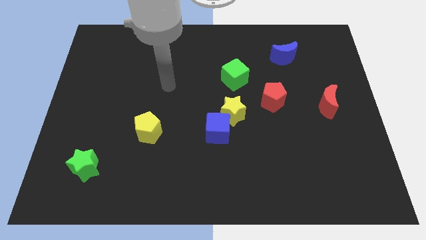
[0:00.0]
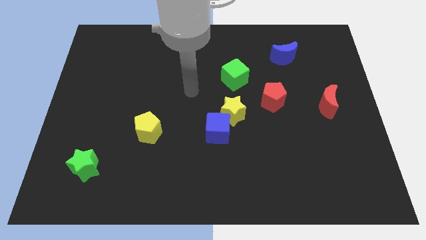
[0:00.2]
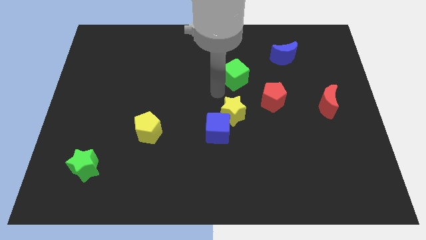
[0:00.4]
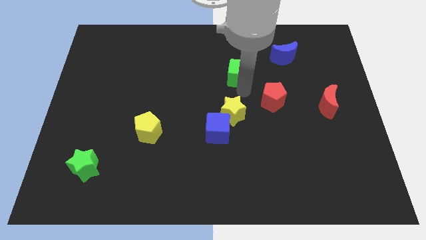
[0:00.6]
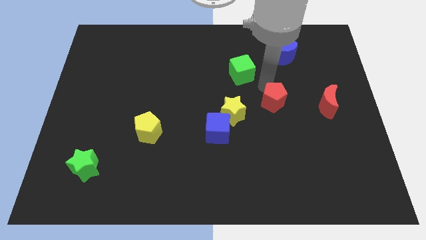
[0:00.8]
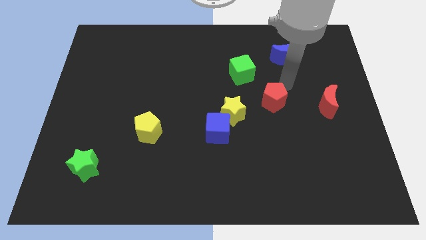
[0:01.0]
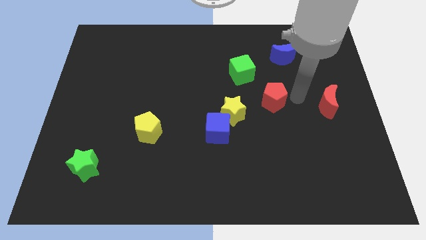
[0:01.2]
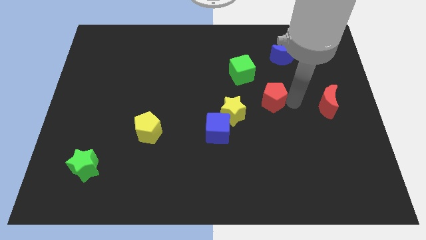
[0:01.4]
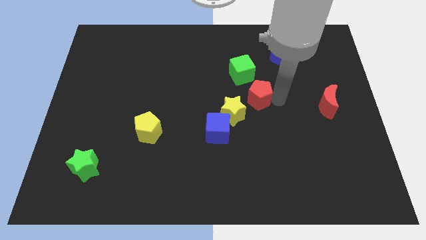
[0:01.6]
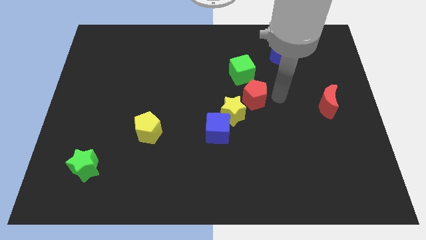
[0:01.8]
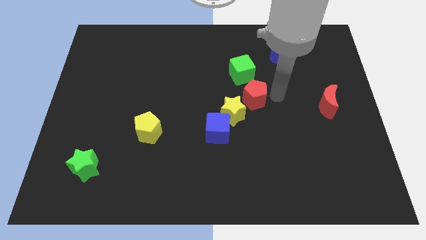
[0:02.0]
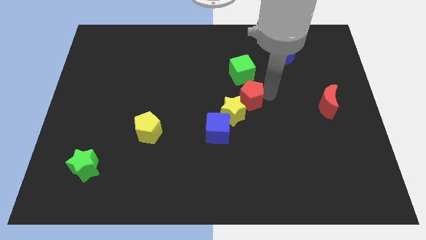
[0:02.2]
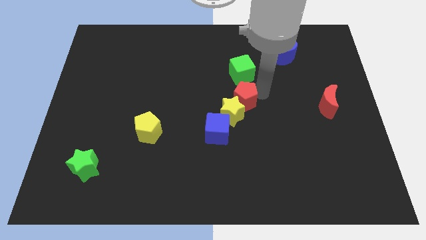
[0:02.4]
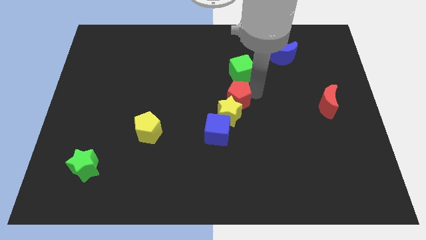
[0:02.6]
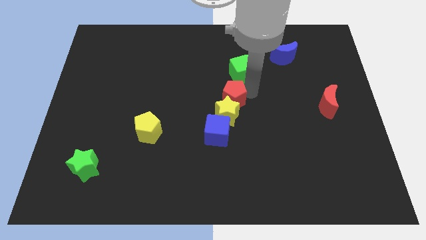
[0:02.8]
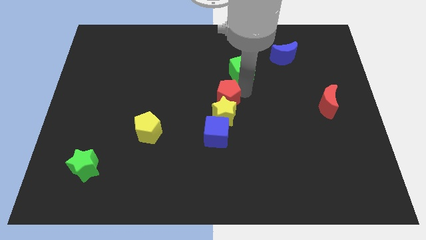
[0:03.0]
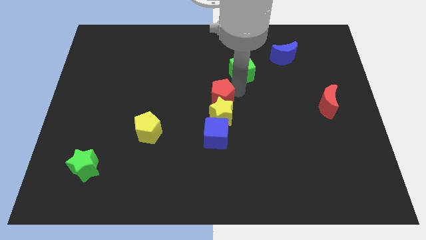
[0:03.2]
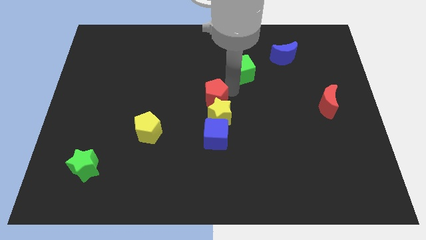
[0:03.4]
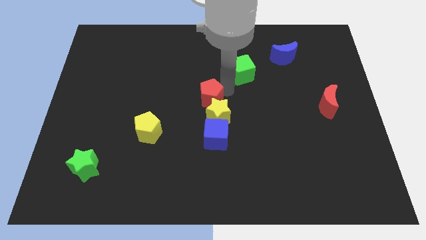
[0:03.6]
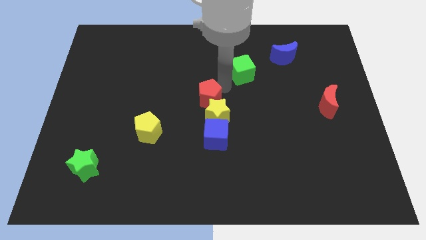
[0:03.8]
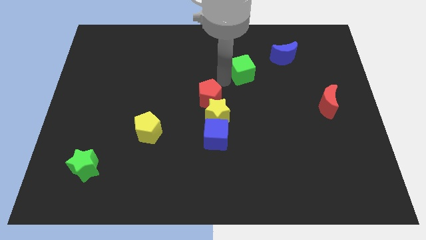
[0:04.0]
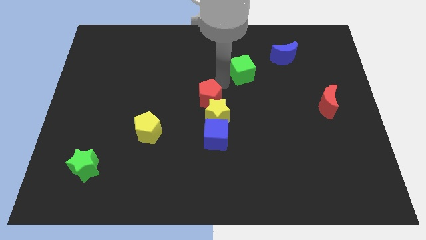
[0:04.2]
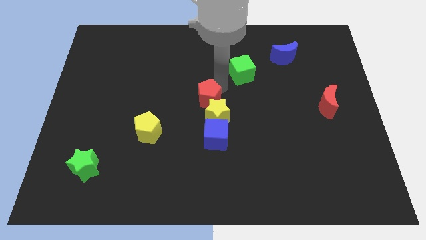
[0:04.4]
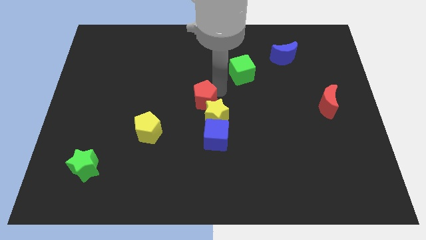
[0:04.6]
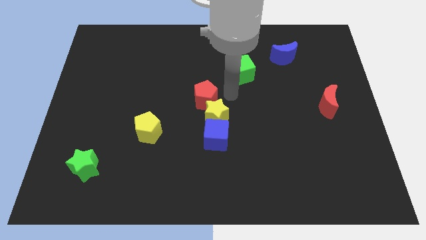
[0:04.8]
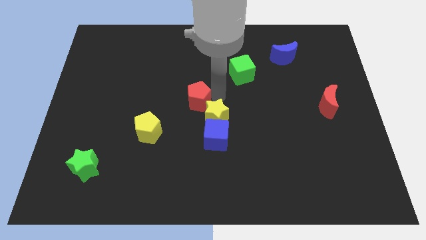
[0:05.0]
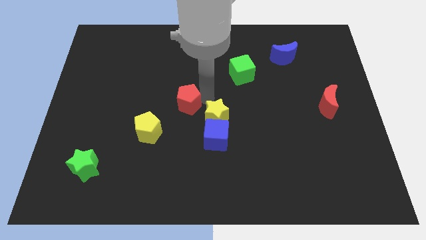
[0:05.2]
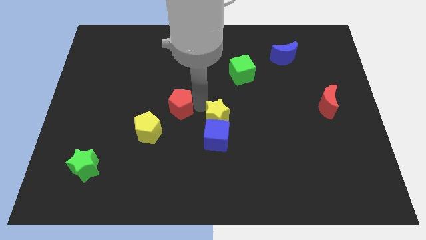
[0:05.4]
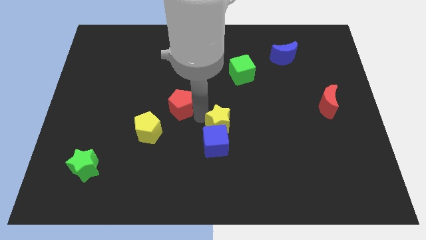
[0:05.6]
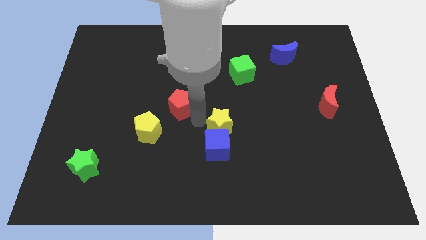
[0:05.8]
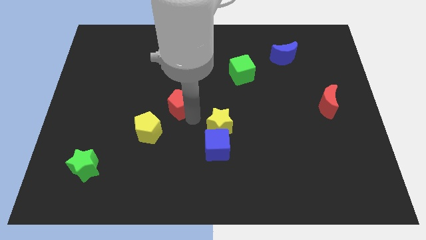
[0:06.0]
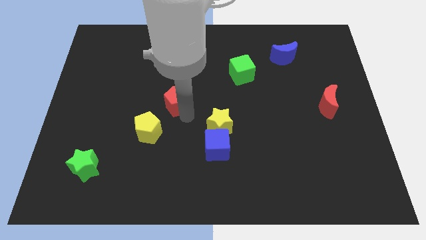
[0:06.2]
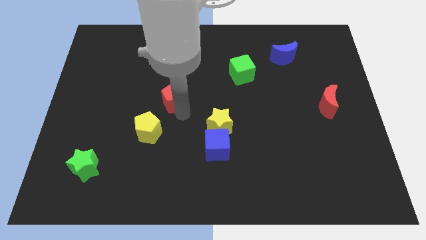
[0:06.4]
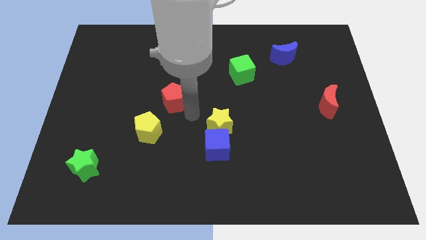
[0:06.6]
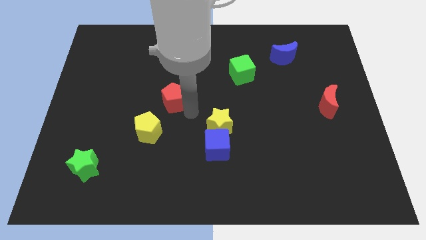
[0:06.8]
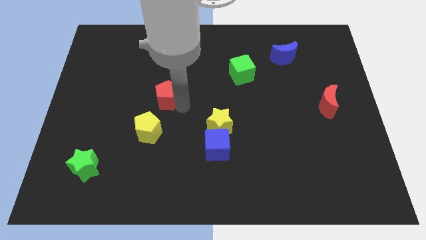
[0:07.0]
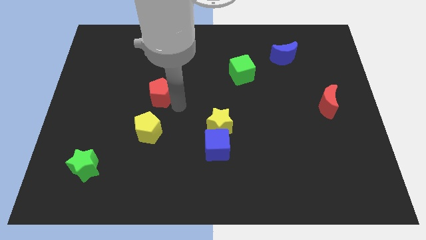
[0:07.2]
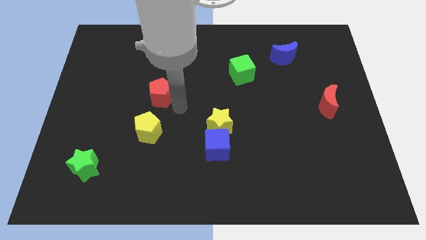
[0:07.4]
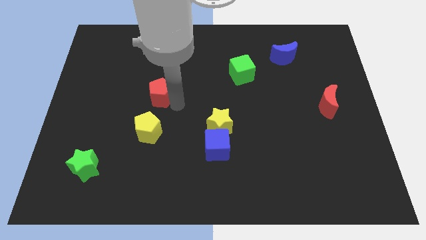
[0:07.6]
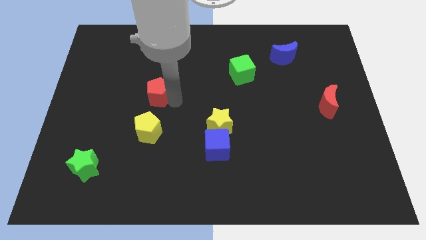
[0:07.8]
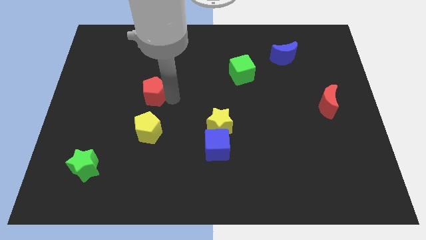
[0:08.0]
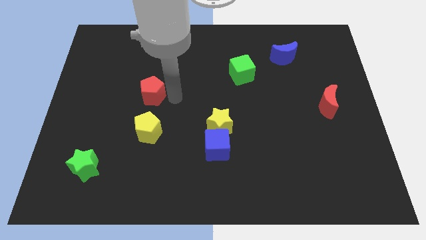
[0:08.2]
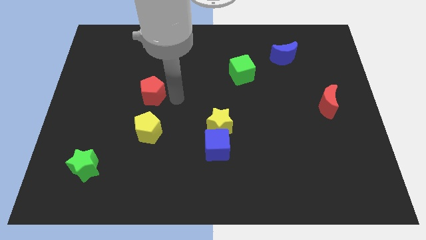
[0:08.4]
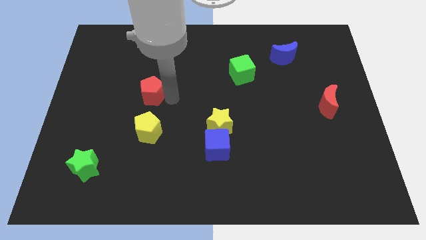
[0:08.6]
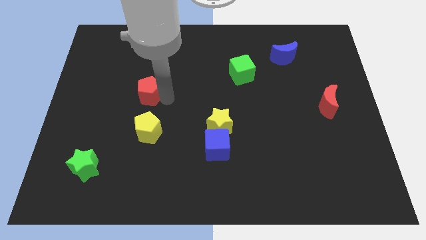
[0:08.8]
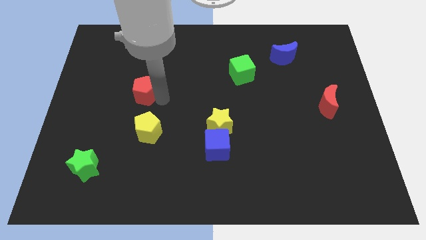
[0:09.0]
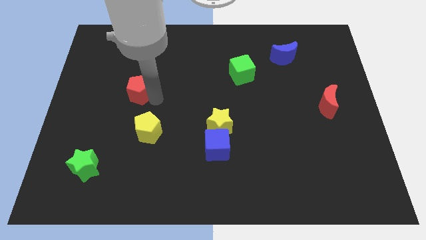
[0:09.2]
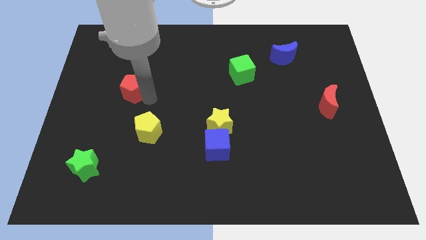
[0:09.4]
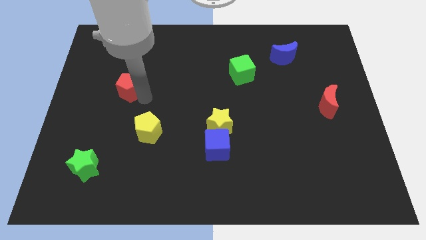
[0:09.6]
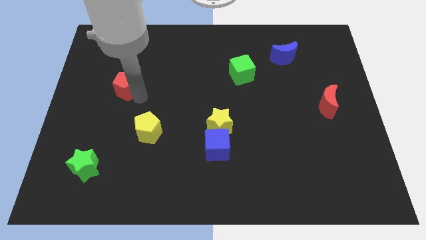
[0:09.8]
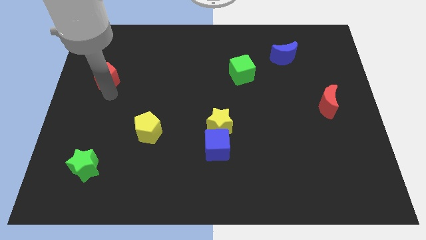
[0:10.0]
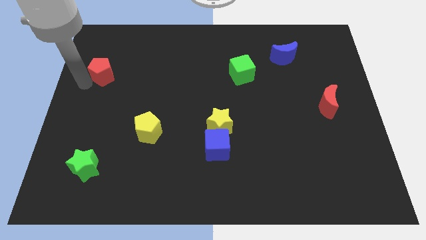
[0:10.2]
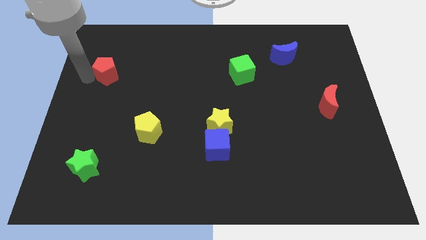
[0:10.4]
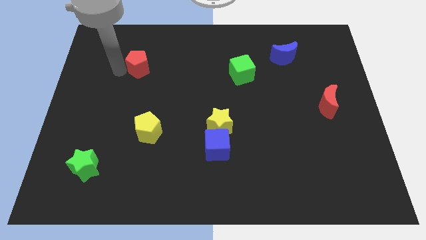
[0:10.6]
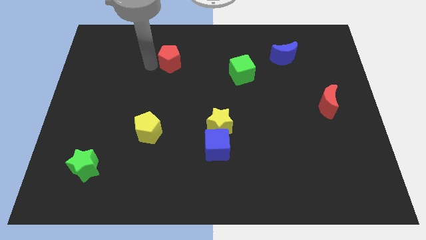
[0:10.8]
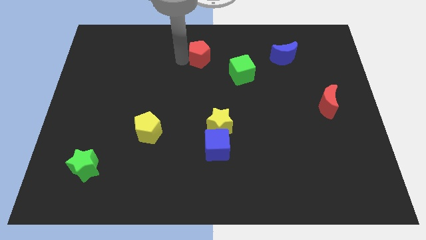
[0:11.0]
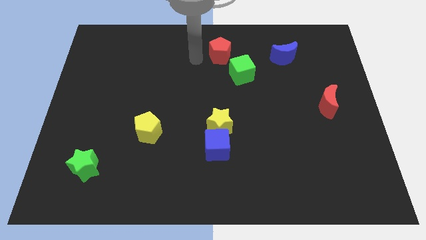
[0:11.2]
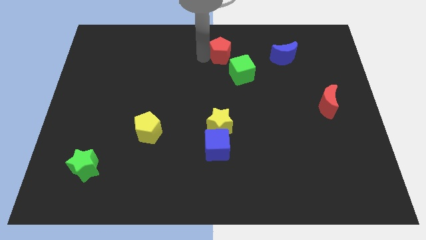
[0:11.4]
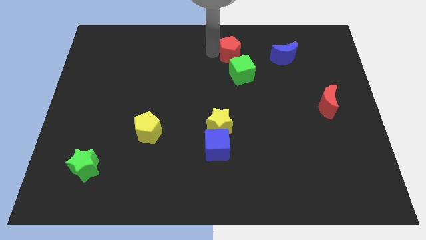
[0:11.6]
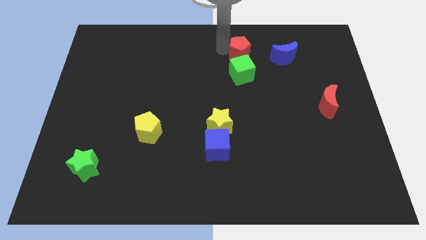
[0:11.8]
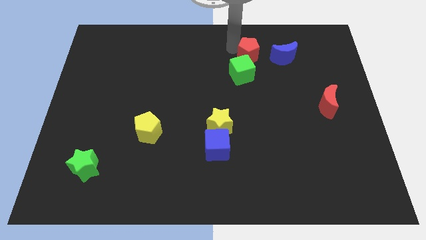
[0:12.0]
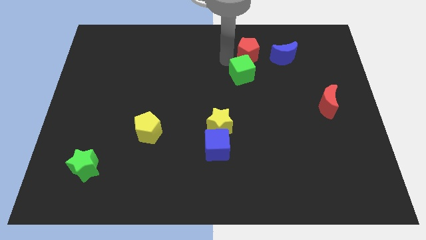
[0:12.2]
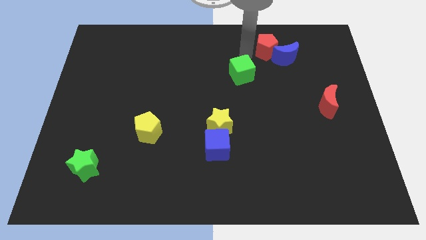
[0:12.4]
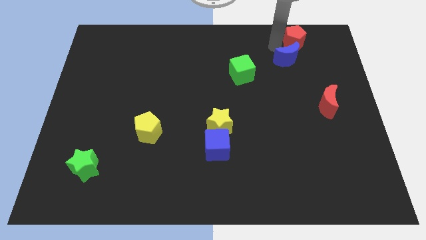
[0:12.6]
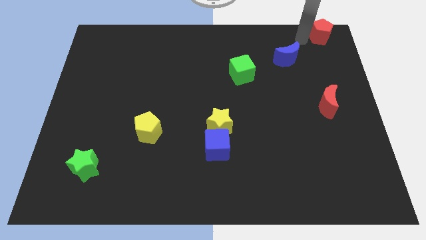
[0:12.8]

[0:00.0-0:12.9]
slide the red pentagon to the upper right corner
